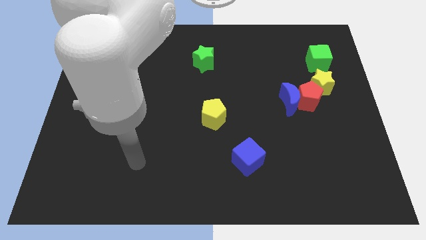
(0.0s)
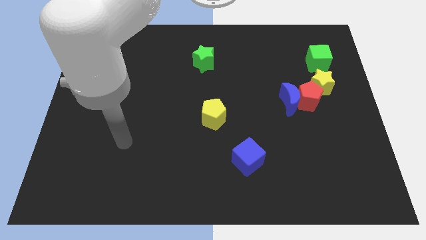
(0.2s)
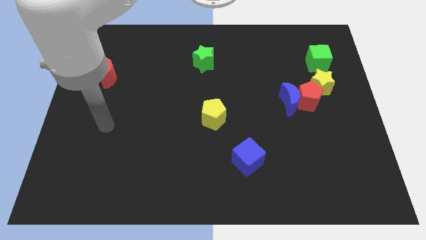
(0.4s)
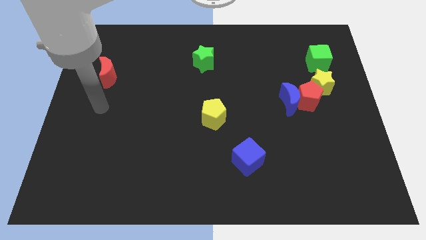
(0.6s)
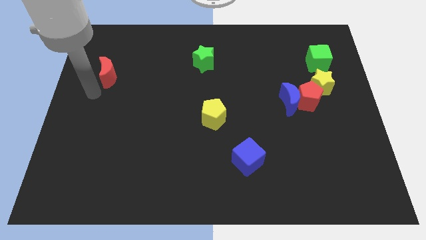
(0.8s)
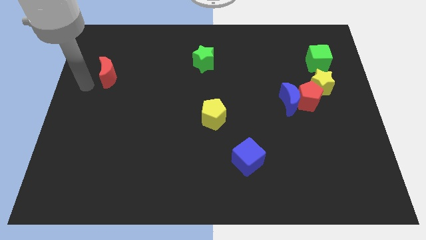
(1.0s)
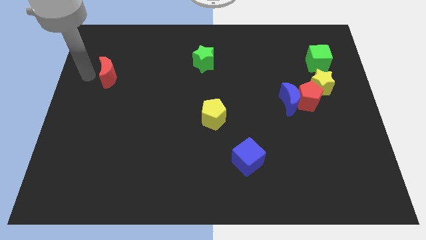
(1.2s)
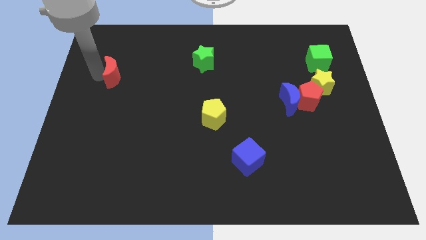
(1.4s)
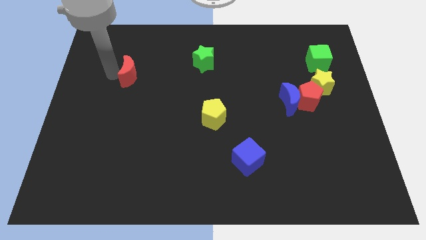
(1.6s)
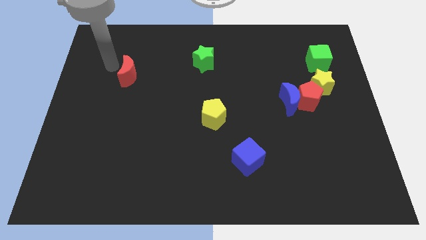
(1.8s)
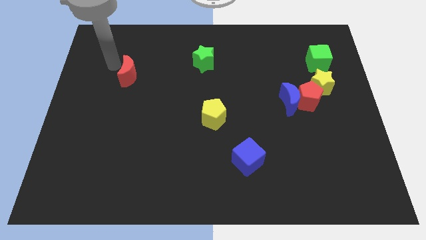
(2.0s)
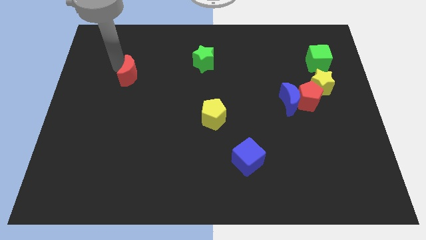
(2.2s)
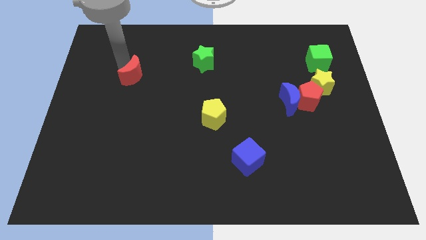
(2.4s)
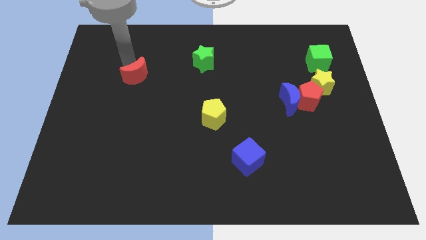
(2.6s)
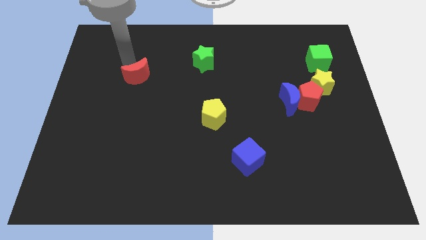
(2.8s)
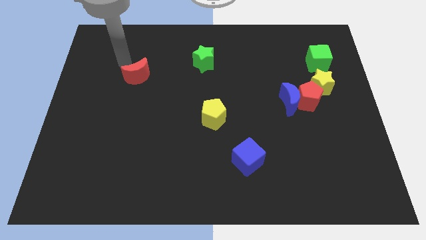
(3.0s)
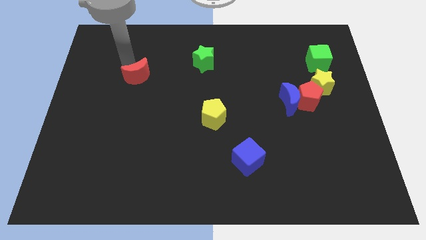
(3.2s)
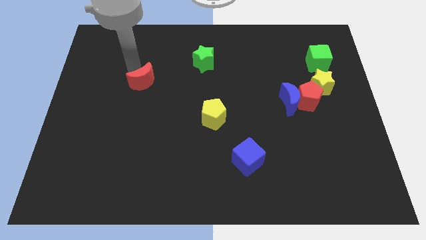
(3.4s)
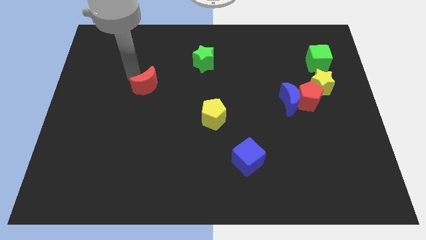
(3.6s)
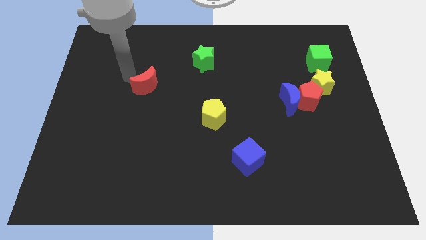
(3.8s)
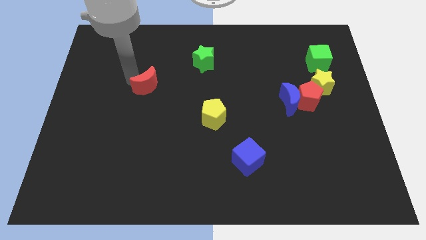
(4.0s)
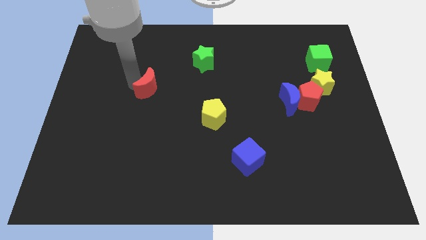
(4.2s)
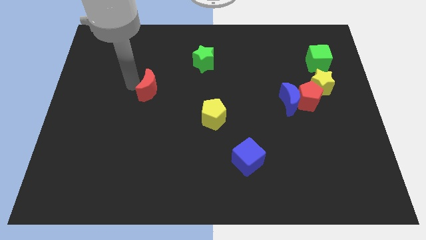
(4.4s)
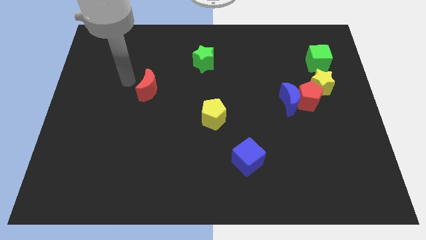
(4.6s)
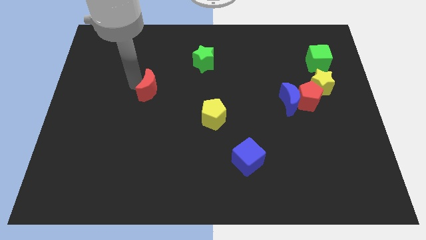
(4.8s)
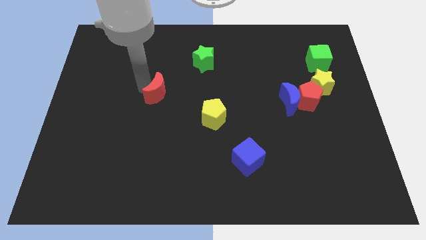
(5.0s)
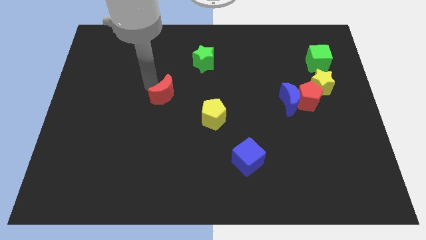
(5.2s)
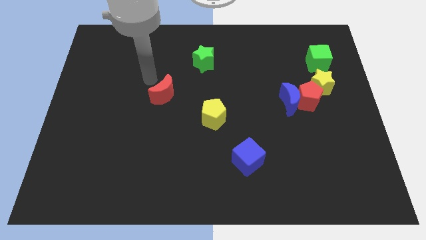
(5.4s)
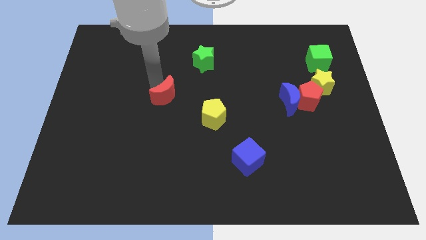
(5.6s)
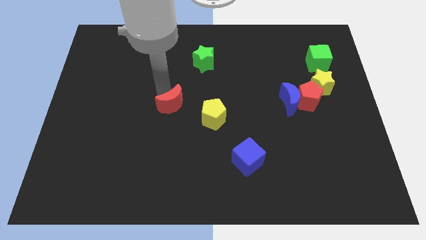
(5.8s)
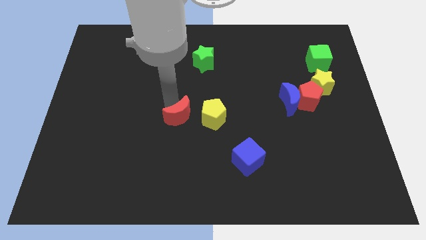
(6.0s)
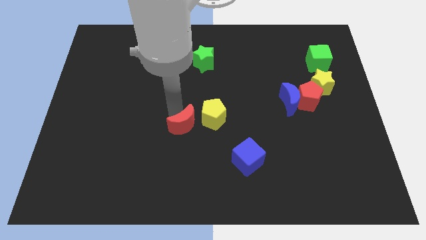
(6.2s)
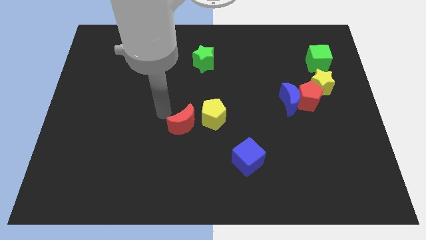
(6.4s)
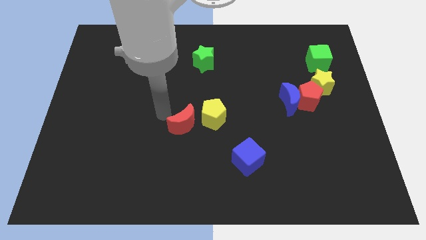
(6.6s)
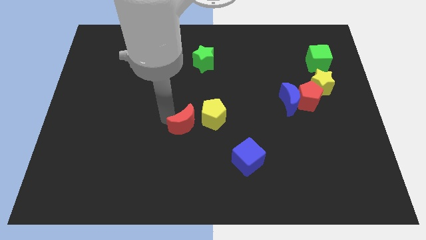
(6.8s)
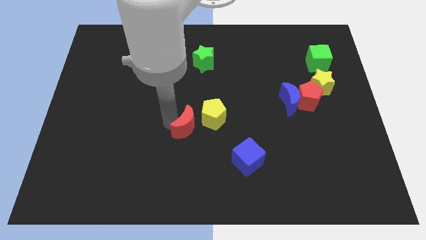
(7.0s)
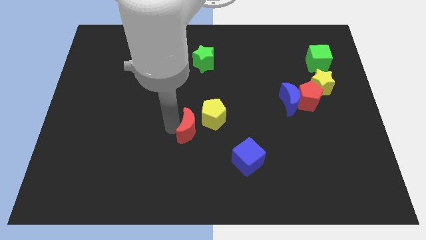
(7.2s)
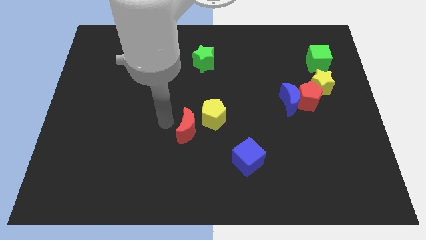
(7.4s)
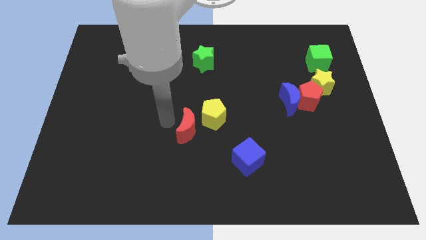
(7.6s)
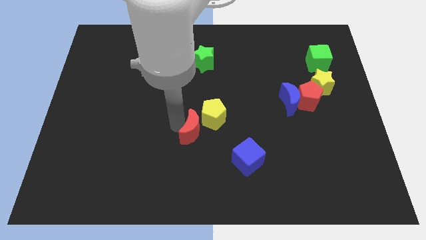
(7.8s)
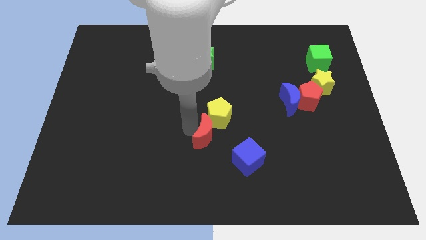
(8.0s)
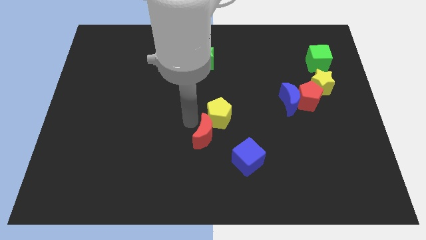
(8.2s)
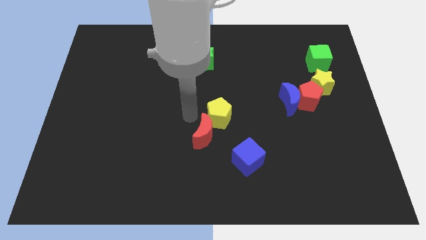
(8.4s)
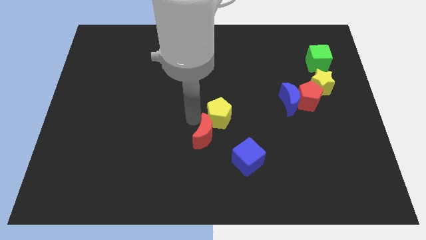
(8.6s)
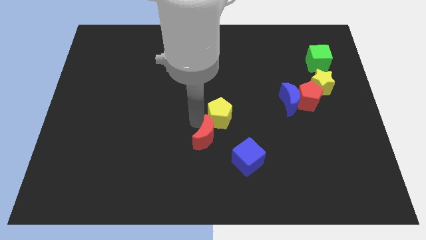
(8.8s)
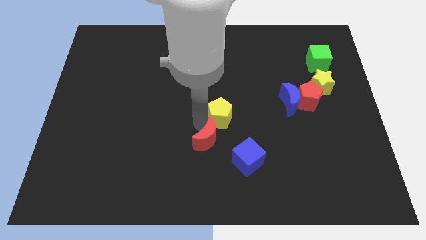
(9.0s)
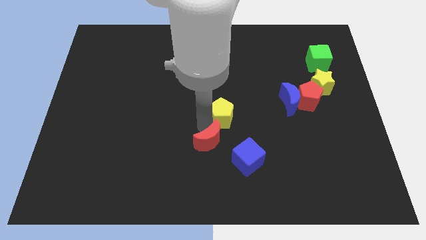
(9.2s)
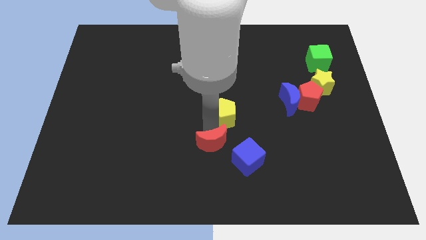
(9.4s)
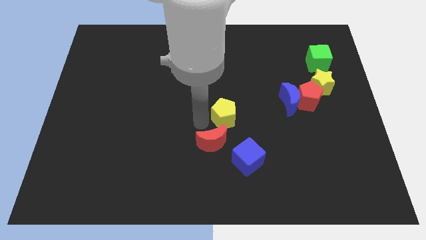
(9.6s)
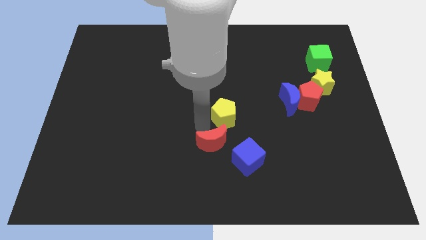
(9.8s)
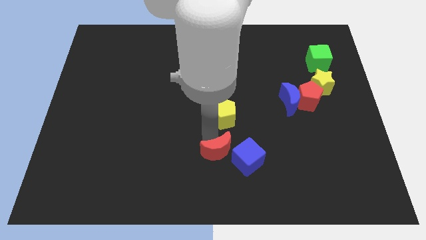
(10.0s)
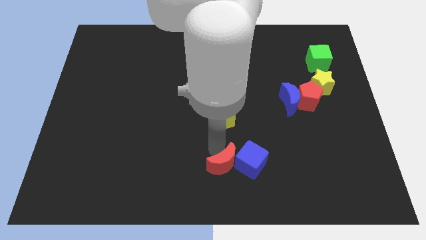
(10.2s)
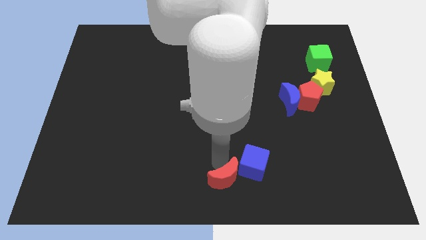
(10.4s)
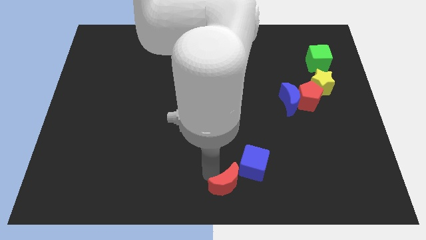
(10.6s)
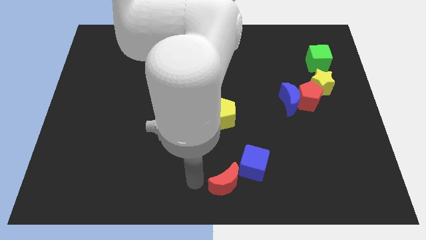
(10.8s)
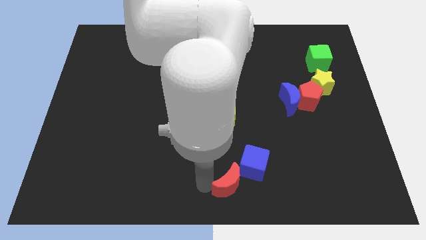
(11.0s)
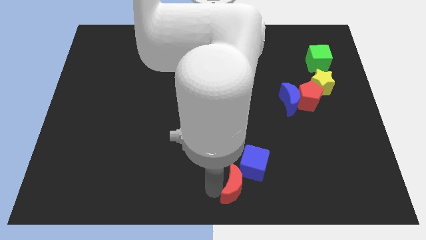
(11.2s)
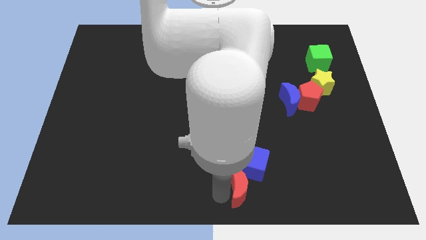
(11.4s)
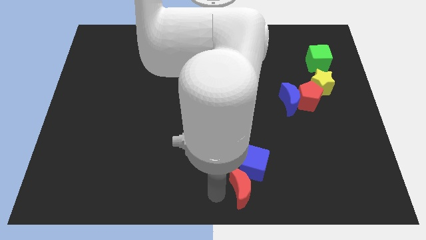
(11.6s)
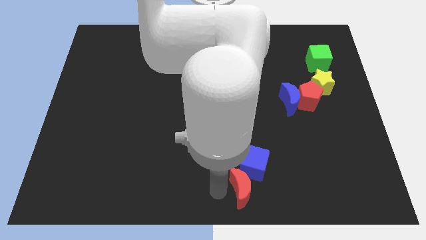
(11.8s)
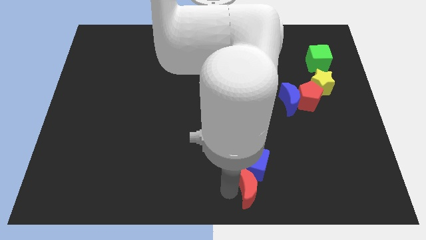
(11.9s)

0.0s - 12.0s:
move the red moon diagonally down and to the right of the blue cube
